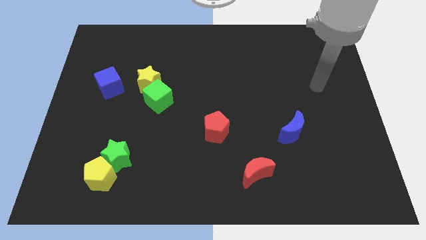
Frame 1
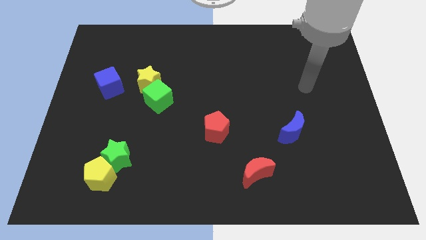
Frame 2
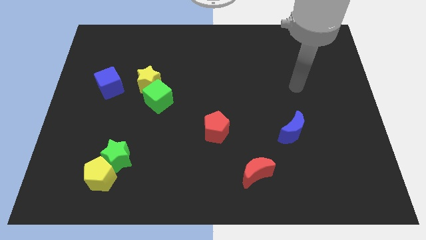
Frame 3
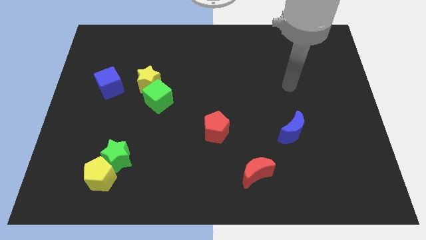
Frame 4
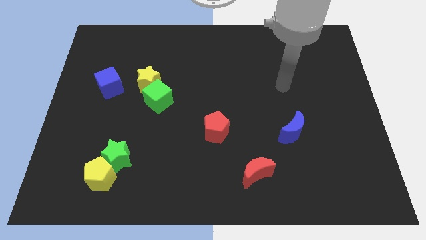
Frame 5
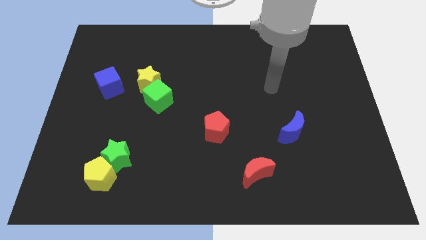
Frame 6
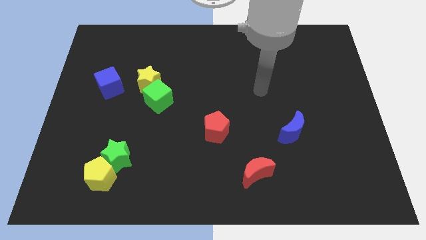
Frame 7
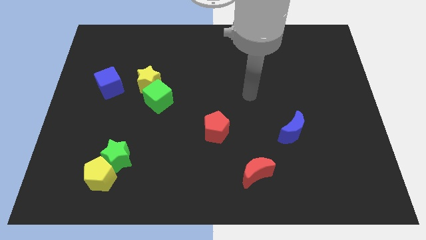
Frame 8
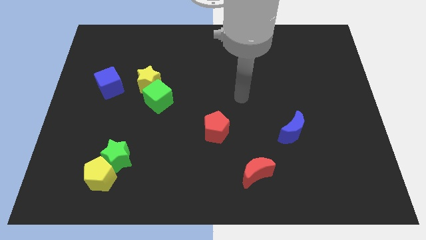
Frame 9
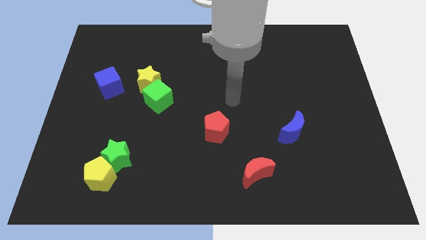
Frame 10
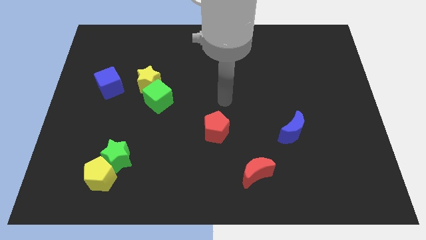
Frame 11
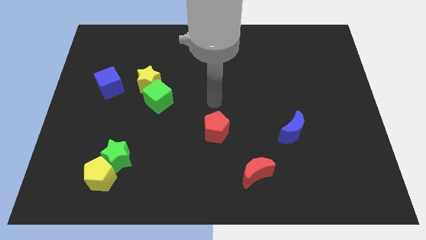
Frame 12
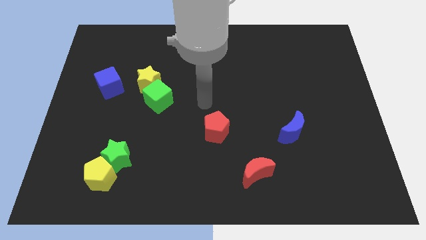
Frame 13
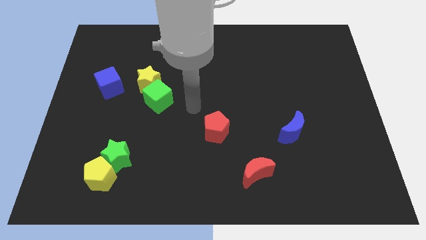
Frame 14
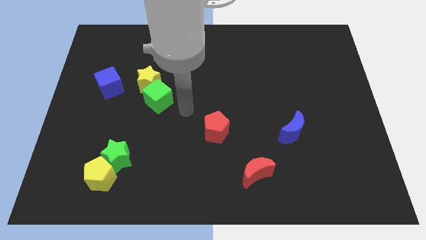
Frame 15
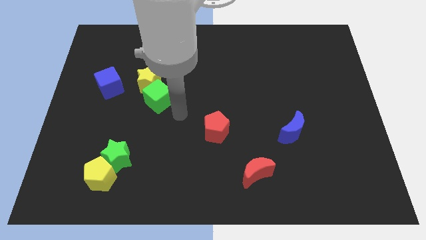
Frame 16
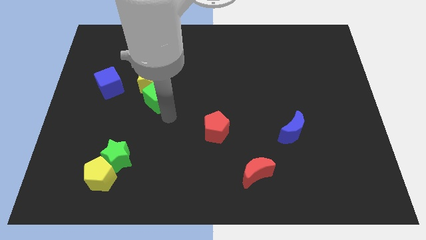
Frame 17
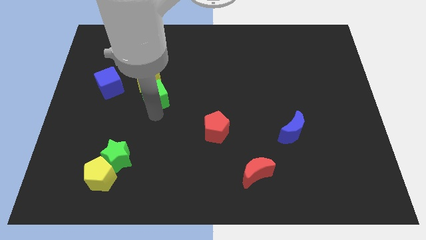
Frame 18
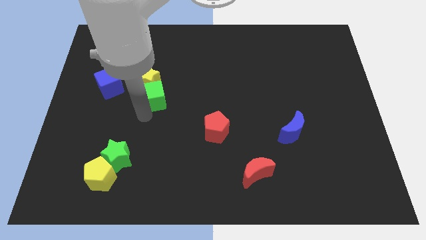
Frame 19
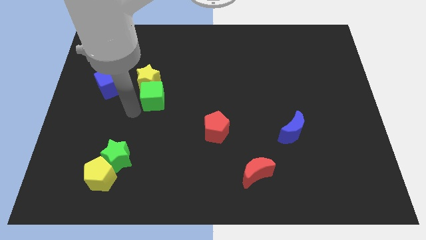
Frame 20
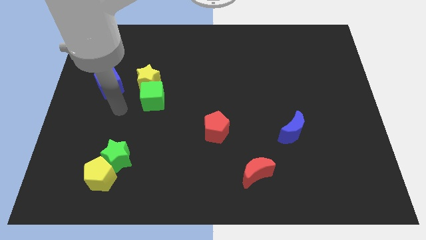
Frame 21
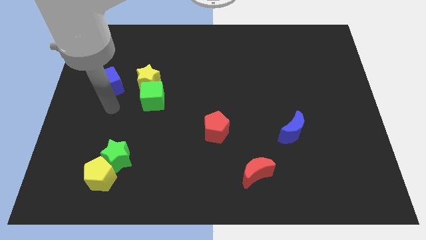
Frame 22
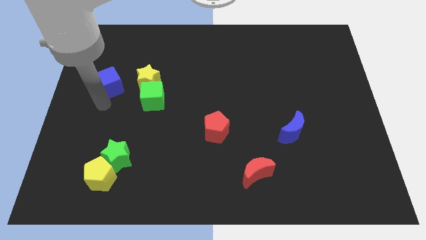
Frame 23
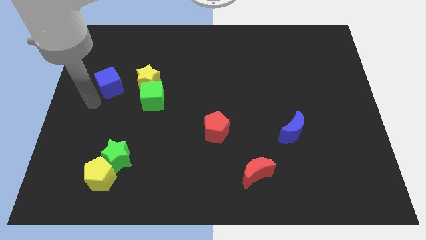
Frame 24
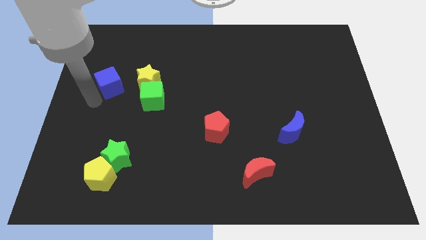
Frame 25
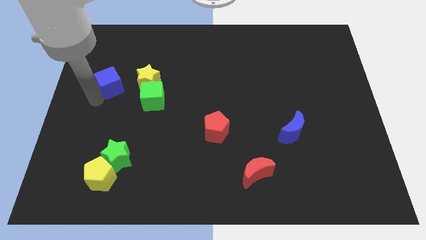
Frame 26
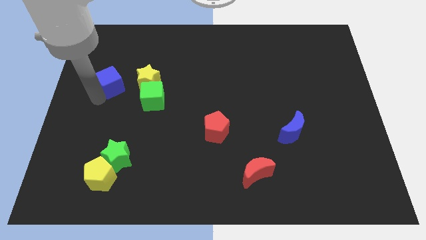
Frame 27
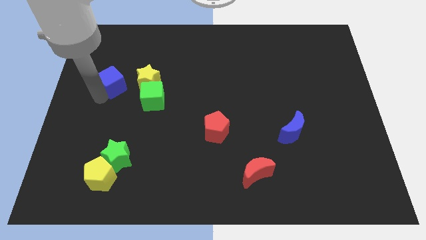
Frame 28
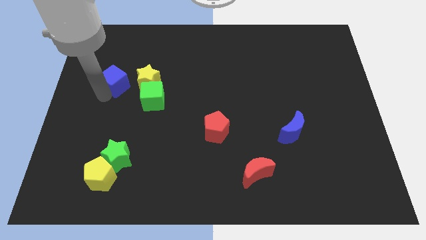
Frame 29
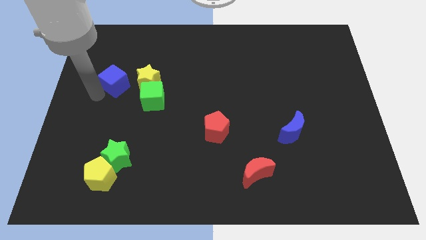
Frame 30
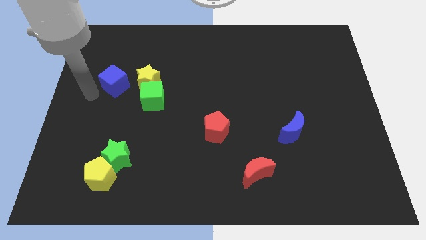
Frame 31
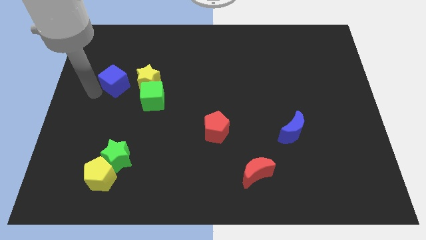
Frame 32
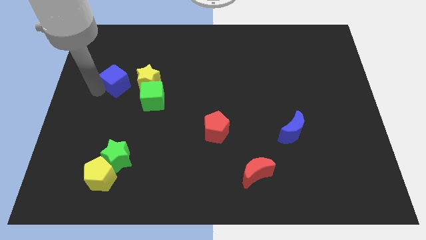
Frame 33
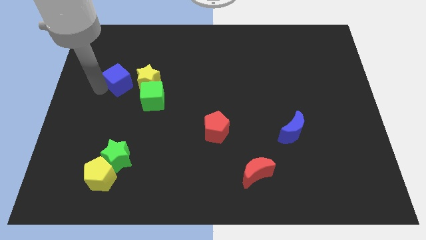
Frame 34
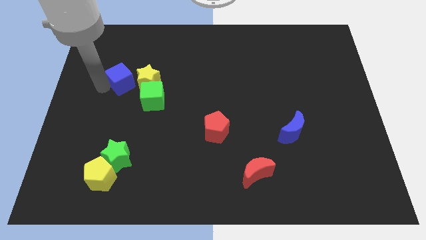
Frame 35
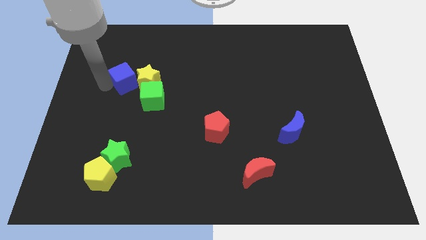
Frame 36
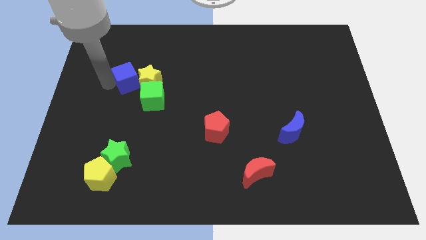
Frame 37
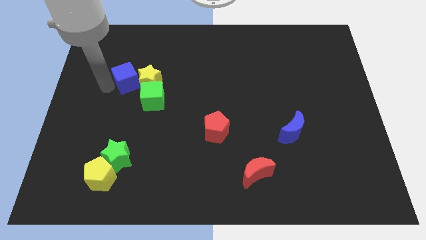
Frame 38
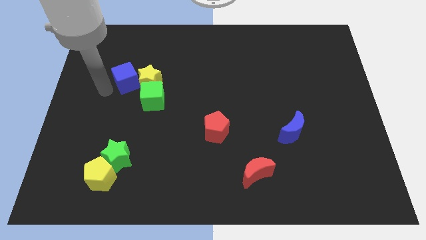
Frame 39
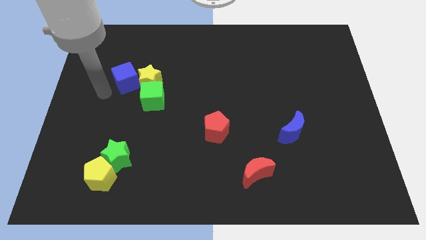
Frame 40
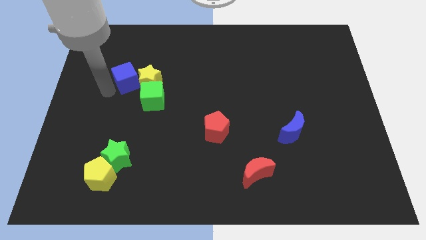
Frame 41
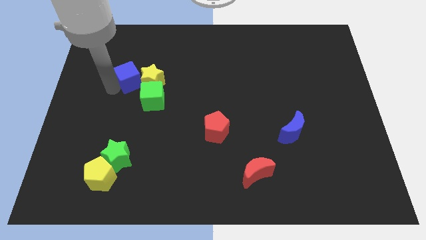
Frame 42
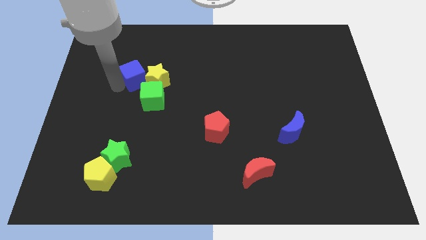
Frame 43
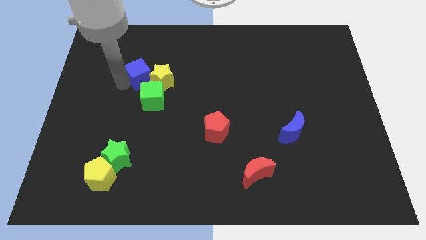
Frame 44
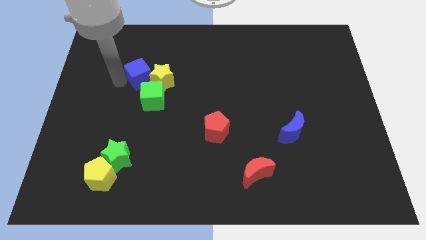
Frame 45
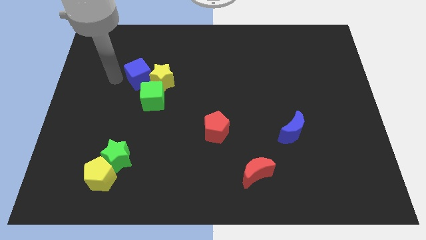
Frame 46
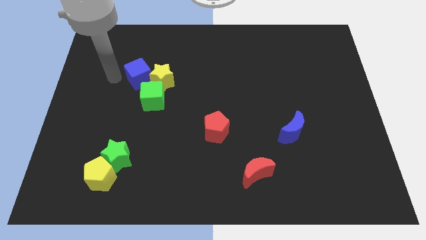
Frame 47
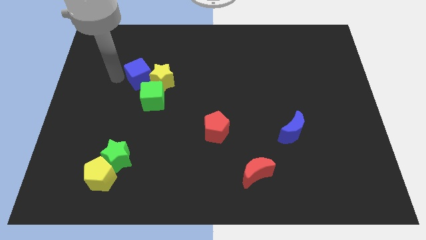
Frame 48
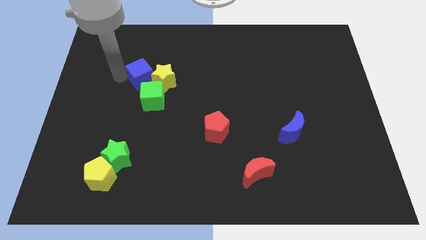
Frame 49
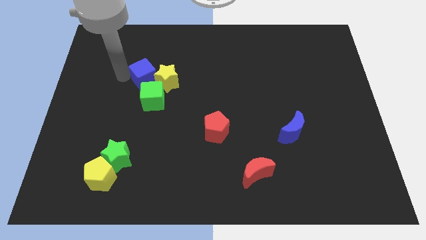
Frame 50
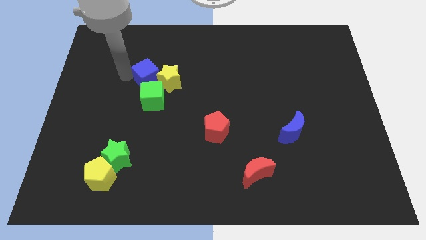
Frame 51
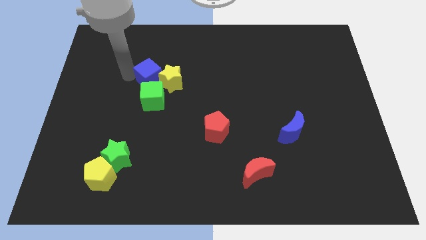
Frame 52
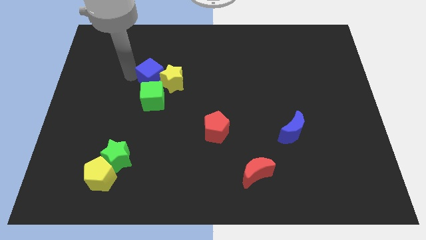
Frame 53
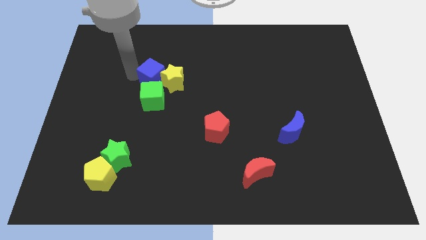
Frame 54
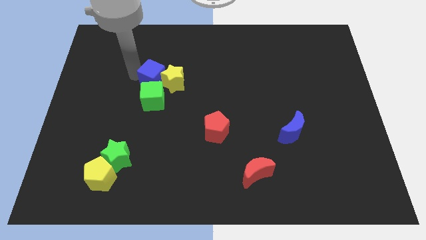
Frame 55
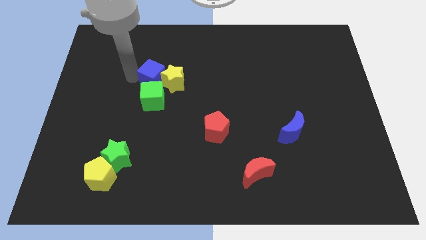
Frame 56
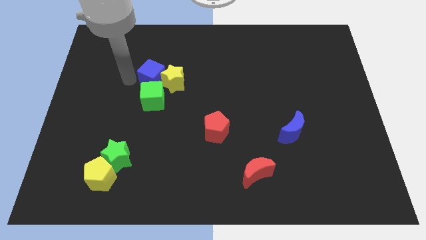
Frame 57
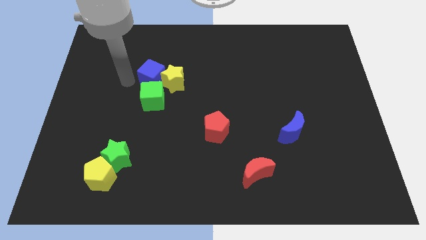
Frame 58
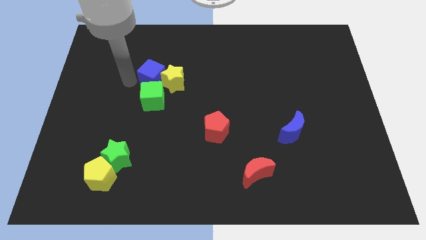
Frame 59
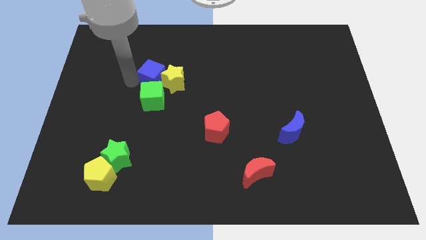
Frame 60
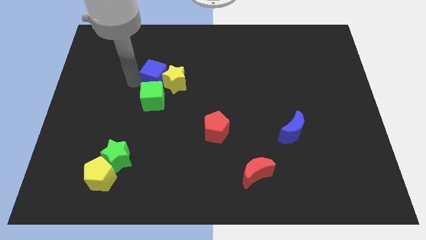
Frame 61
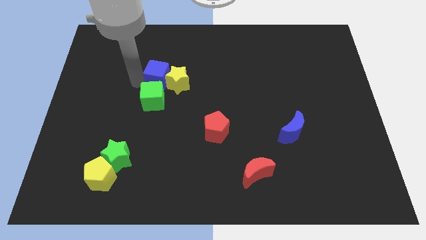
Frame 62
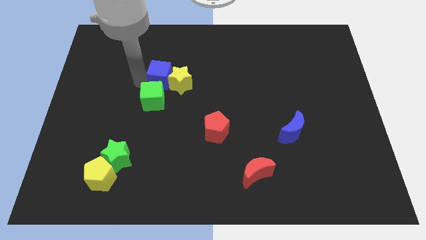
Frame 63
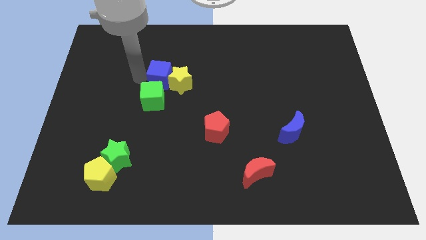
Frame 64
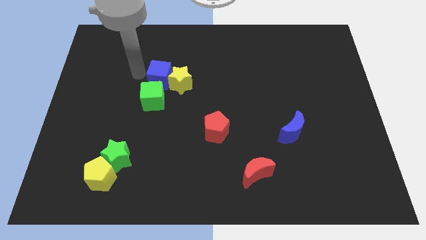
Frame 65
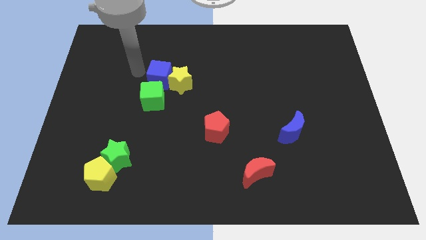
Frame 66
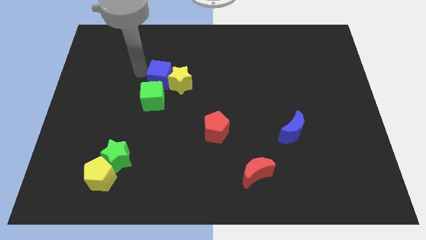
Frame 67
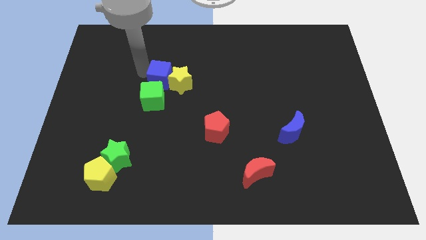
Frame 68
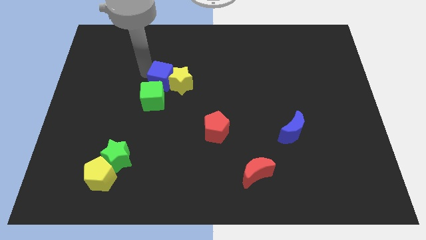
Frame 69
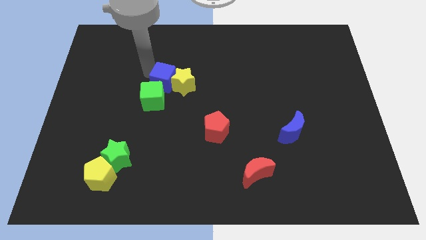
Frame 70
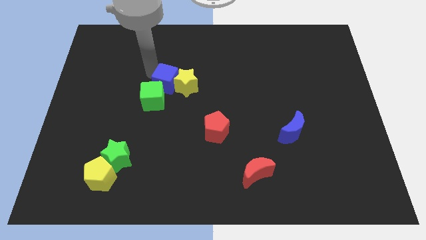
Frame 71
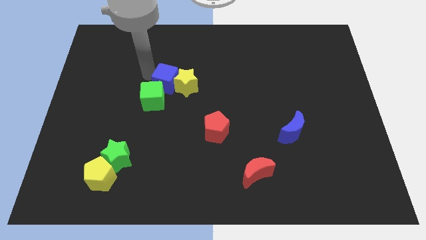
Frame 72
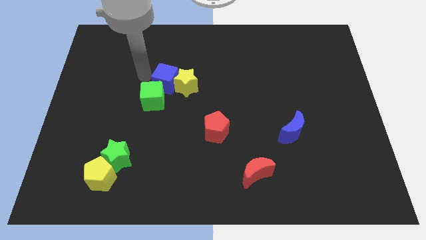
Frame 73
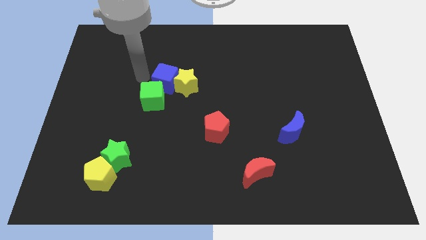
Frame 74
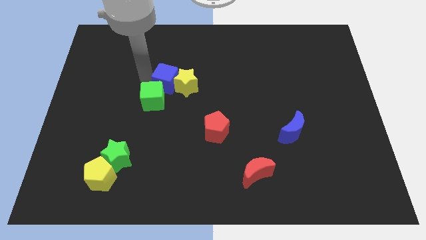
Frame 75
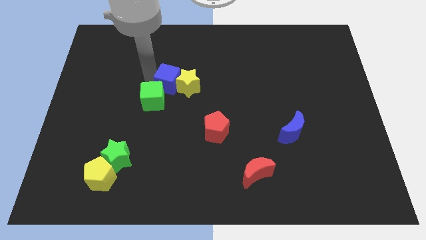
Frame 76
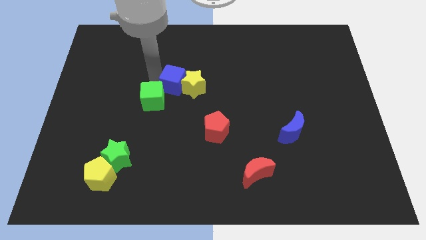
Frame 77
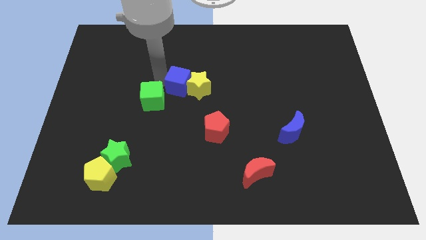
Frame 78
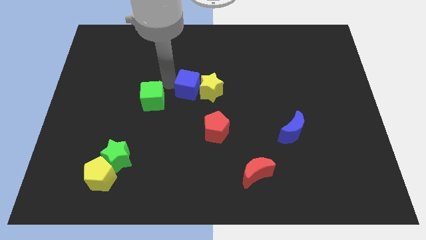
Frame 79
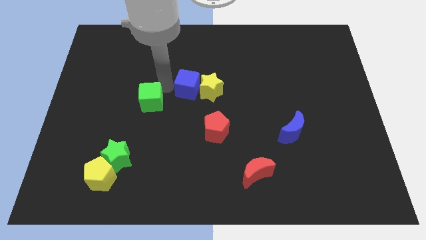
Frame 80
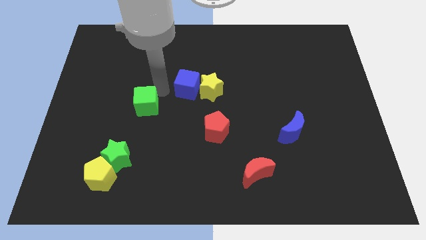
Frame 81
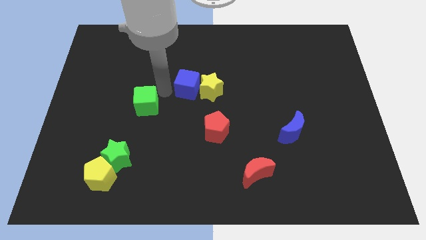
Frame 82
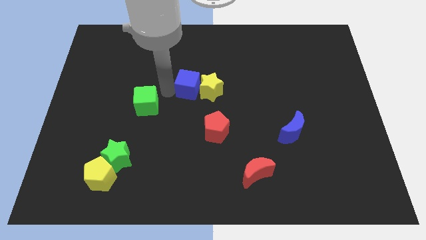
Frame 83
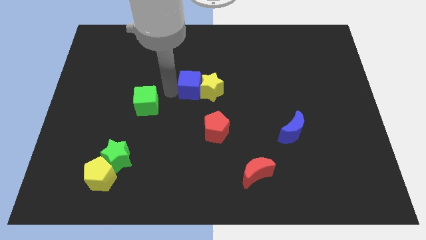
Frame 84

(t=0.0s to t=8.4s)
move the blue cube right
